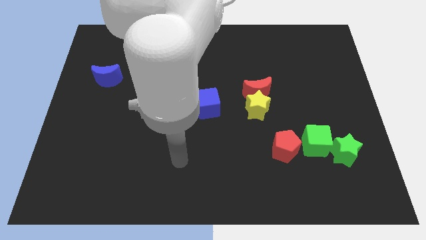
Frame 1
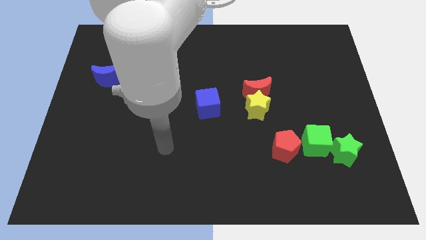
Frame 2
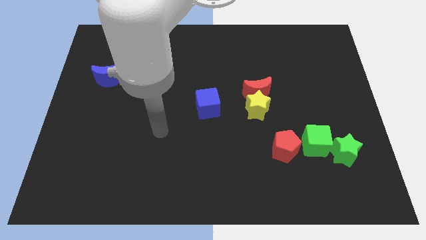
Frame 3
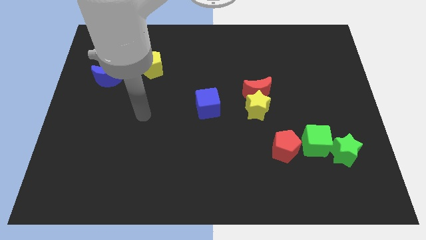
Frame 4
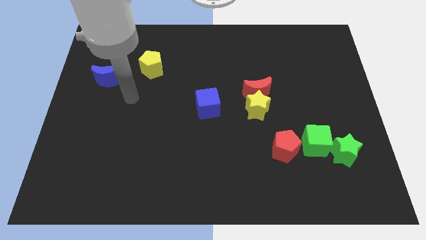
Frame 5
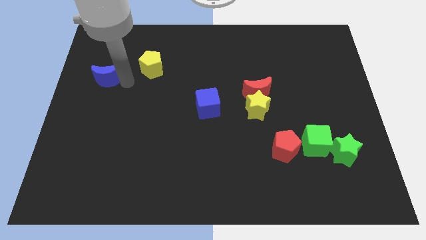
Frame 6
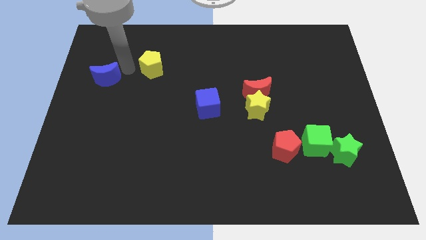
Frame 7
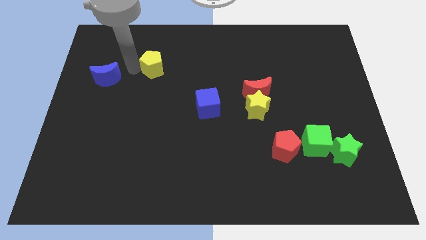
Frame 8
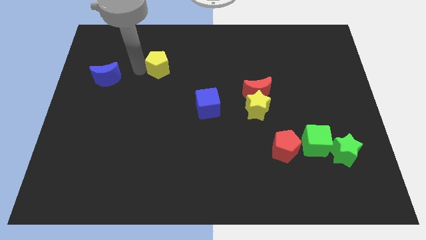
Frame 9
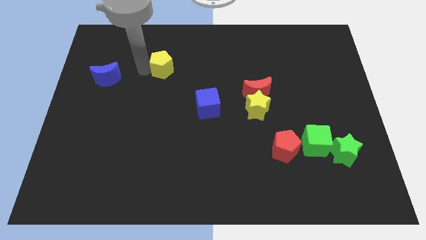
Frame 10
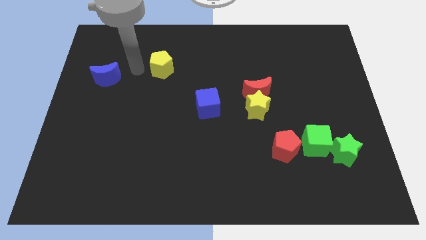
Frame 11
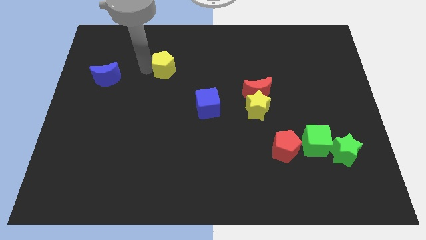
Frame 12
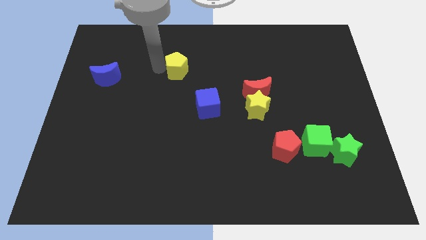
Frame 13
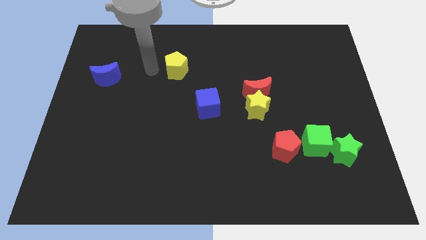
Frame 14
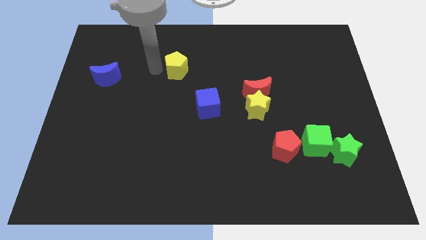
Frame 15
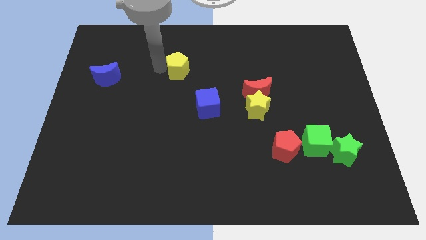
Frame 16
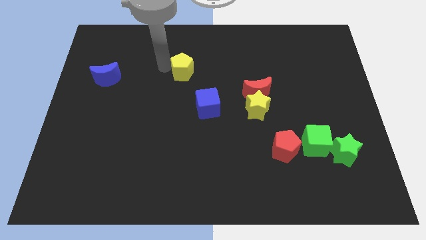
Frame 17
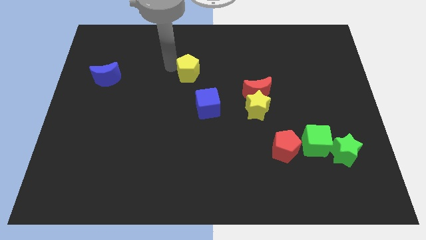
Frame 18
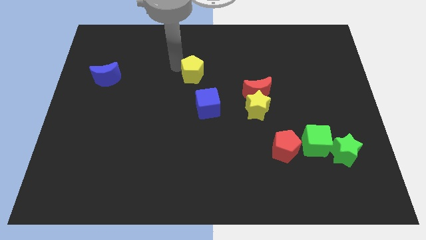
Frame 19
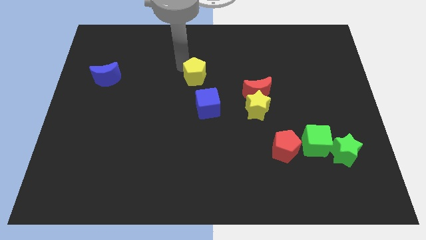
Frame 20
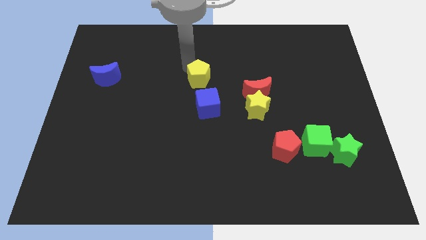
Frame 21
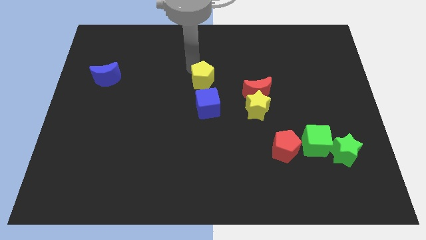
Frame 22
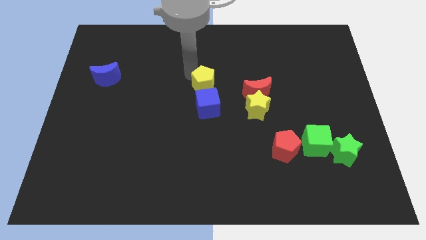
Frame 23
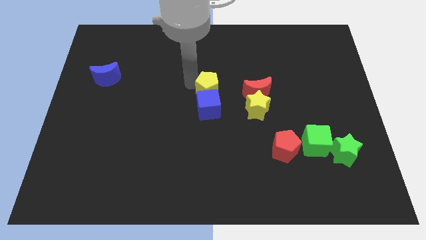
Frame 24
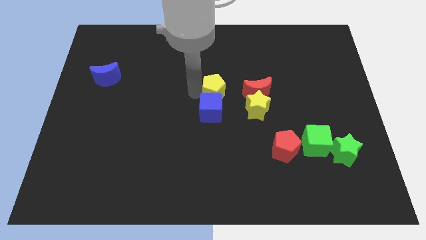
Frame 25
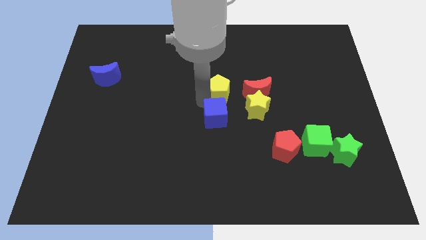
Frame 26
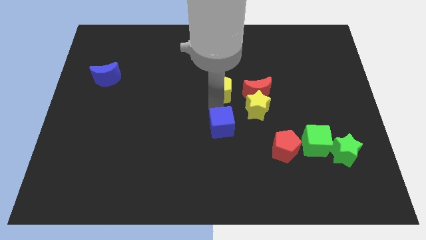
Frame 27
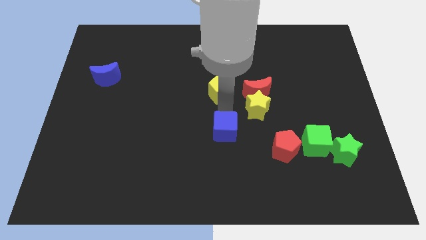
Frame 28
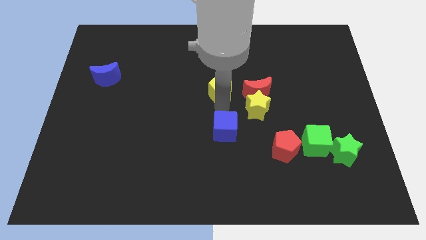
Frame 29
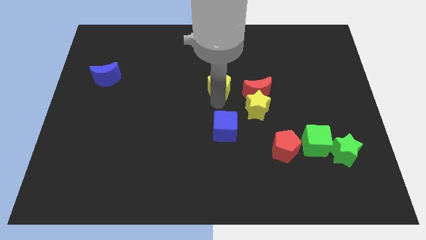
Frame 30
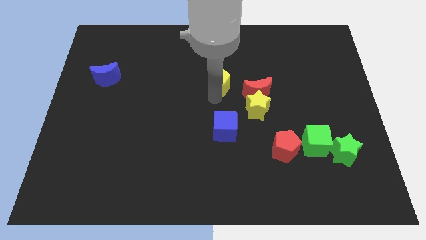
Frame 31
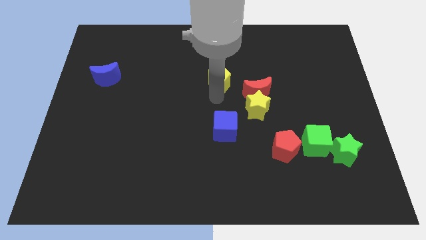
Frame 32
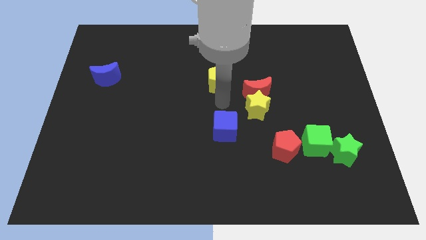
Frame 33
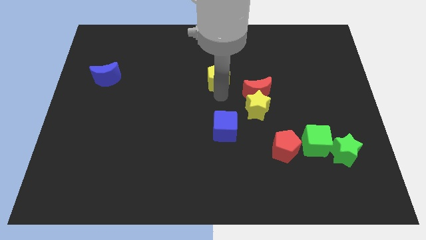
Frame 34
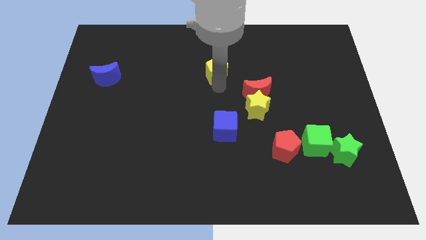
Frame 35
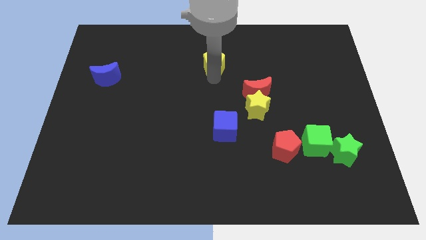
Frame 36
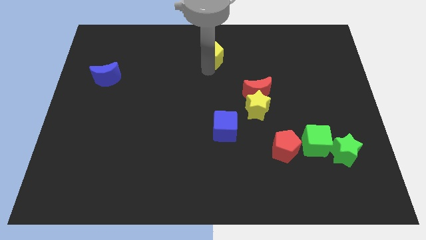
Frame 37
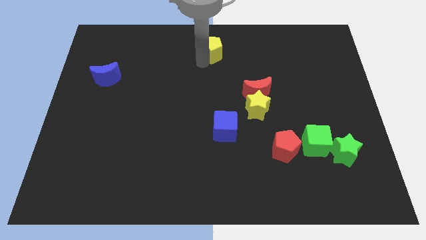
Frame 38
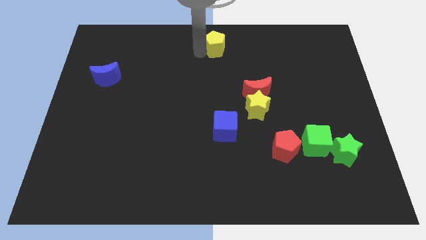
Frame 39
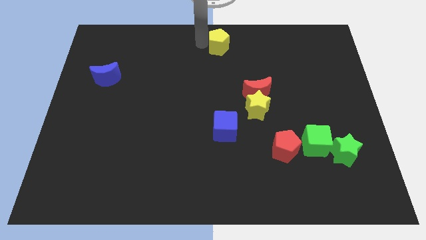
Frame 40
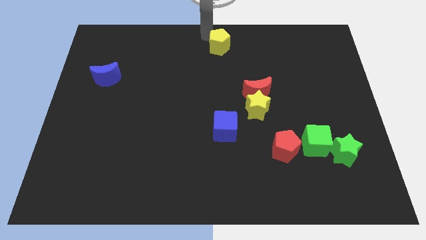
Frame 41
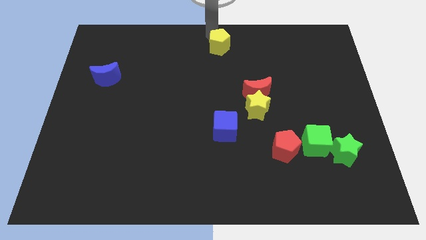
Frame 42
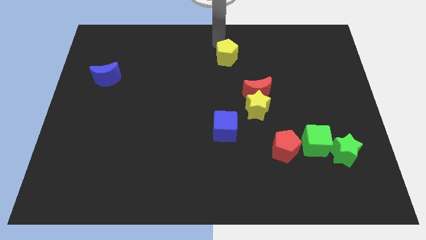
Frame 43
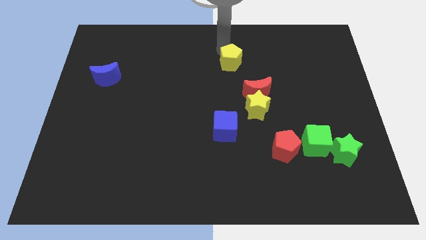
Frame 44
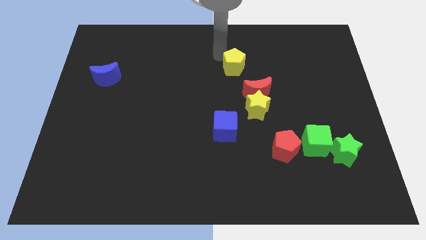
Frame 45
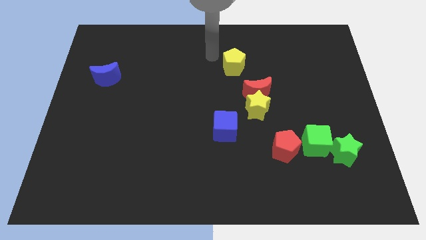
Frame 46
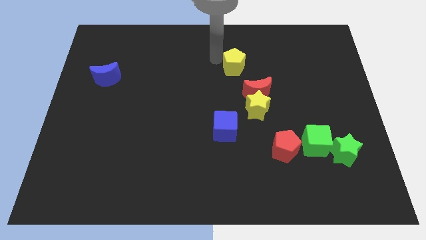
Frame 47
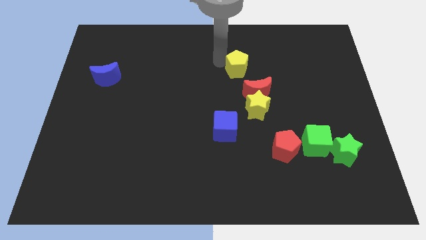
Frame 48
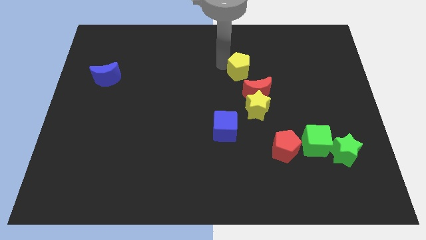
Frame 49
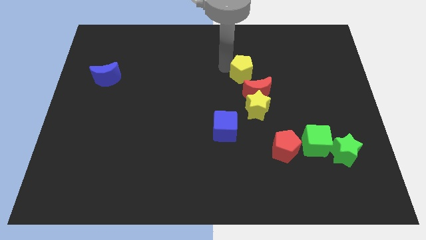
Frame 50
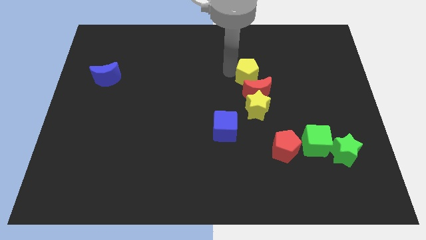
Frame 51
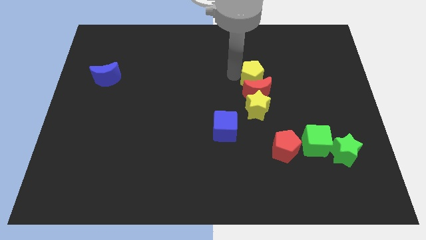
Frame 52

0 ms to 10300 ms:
slide the yellow pentagon diagonally up and to the right of the red moon

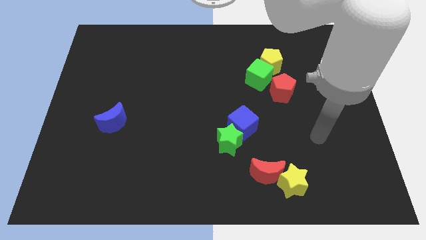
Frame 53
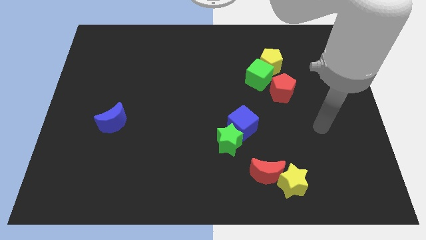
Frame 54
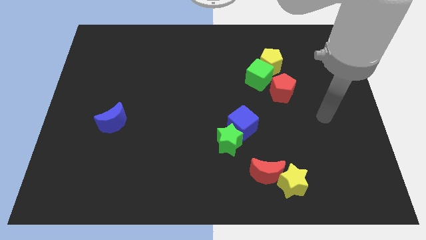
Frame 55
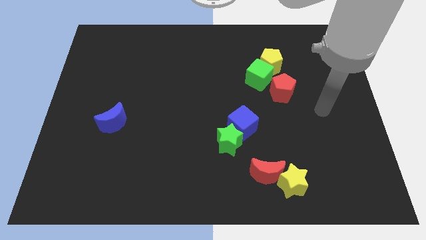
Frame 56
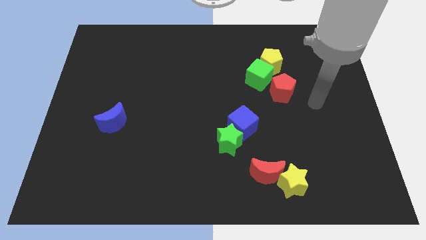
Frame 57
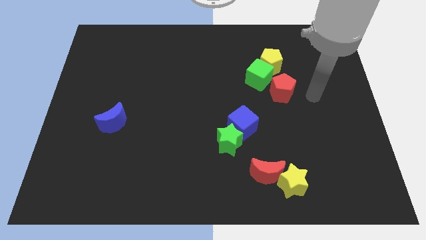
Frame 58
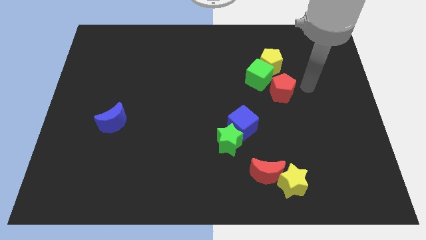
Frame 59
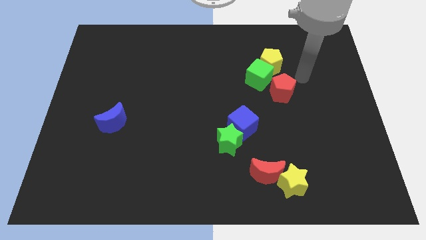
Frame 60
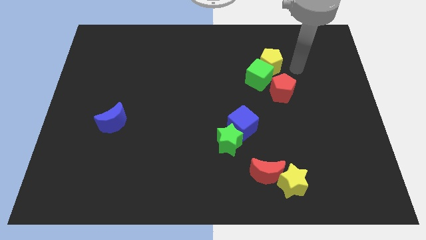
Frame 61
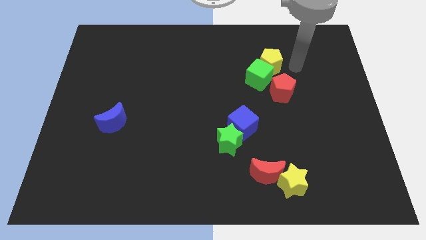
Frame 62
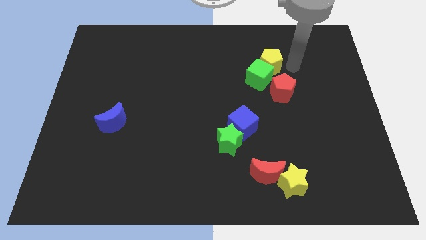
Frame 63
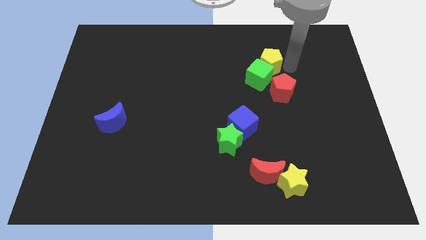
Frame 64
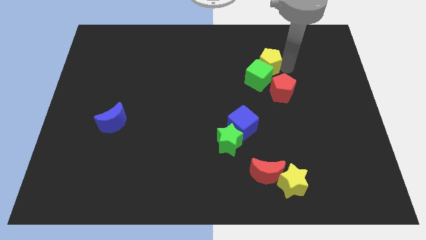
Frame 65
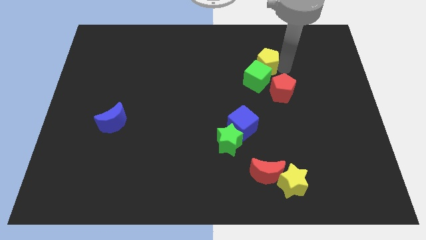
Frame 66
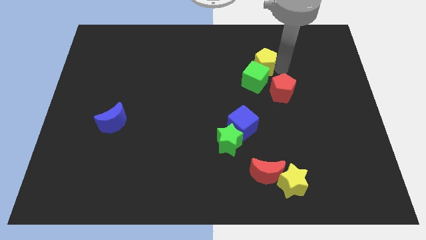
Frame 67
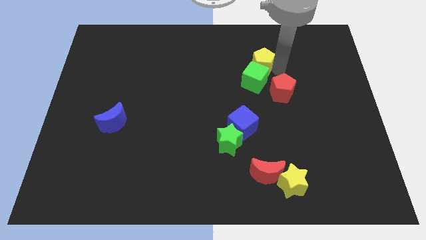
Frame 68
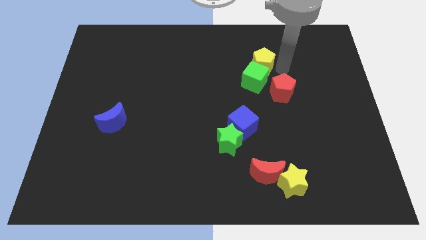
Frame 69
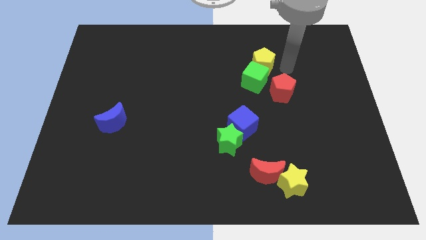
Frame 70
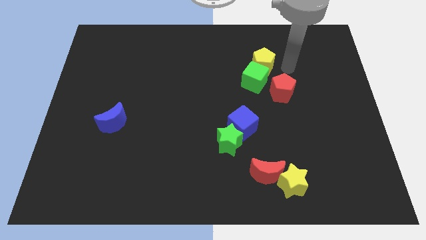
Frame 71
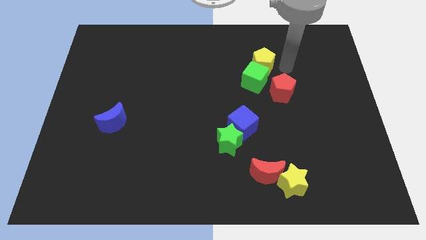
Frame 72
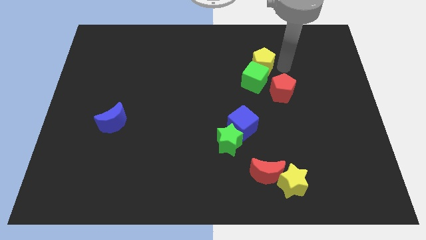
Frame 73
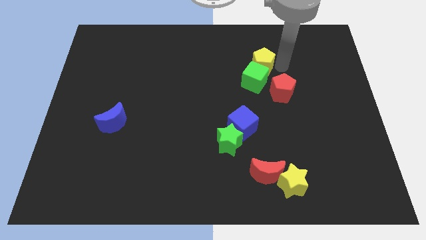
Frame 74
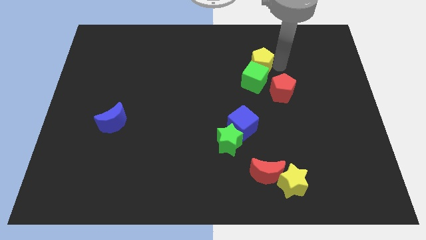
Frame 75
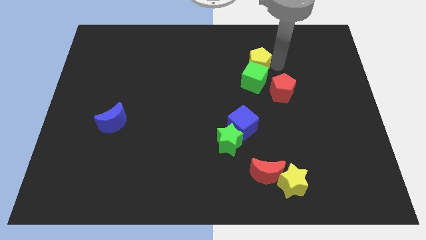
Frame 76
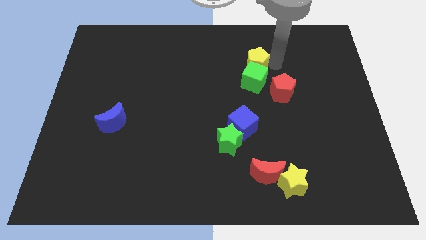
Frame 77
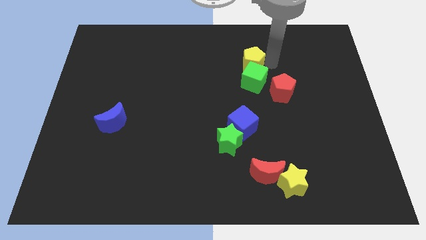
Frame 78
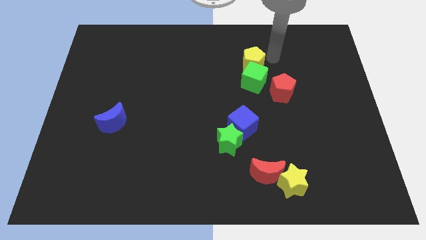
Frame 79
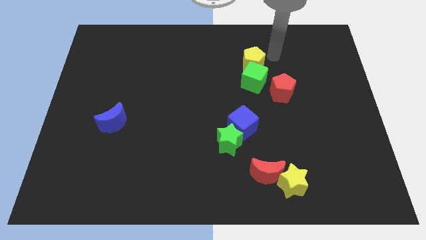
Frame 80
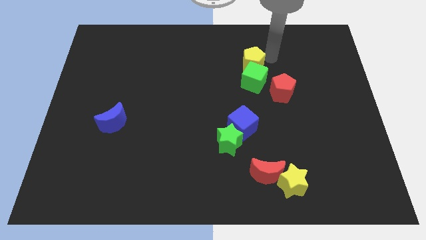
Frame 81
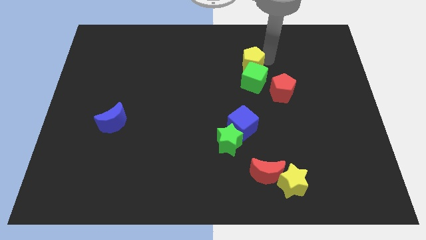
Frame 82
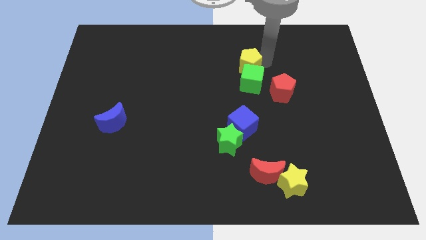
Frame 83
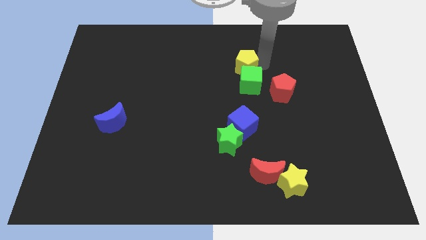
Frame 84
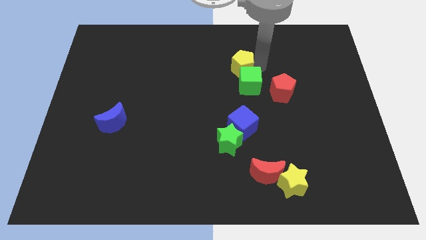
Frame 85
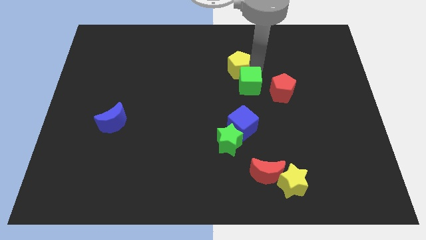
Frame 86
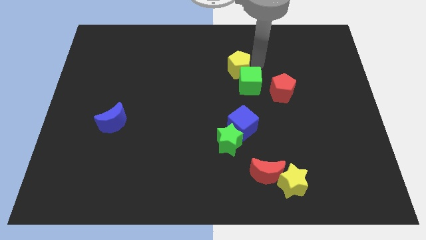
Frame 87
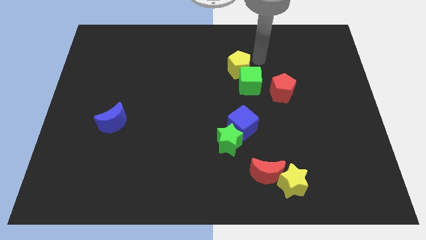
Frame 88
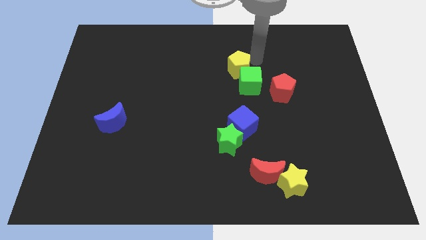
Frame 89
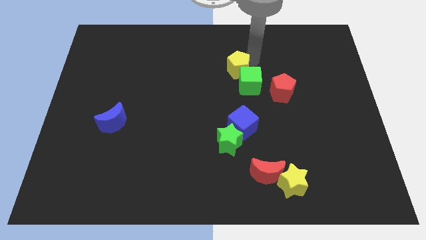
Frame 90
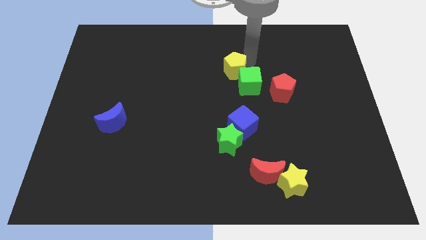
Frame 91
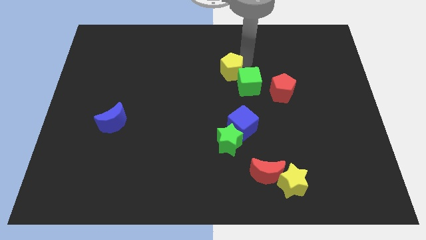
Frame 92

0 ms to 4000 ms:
put the yellow pentagon left of the green cube
